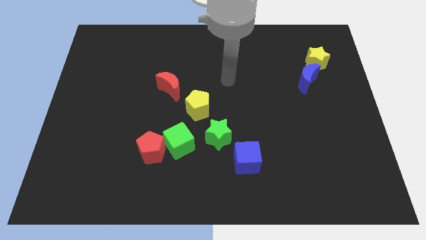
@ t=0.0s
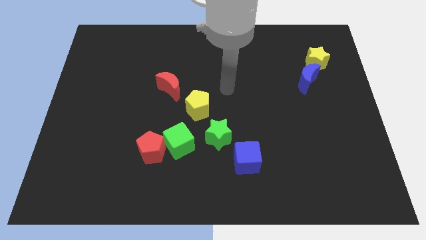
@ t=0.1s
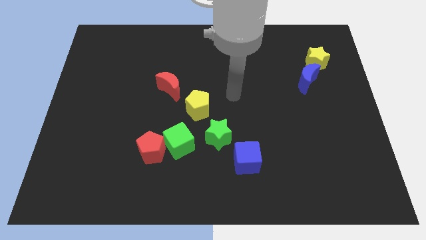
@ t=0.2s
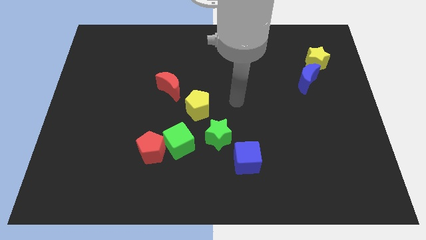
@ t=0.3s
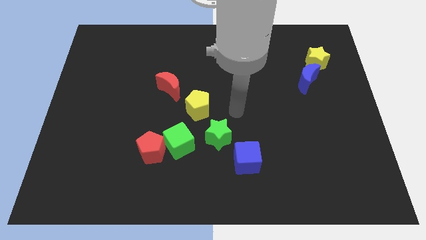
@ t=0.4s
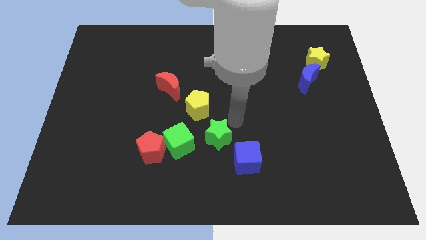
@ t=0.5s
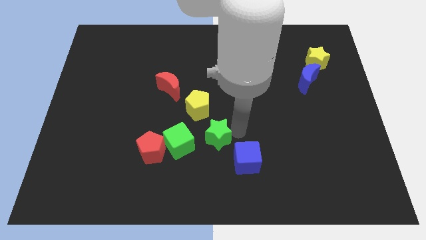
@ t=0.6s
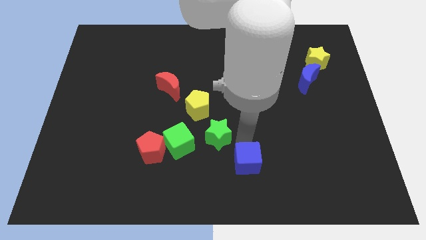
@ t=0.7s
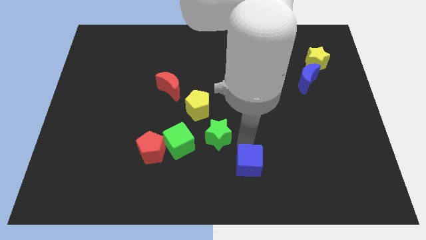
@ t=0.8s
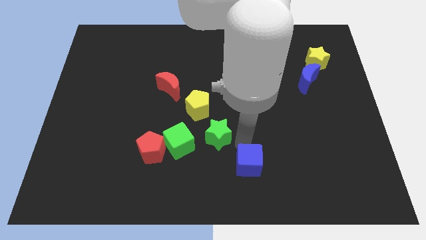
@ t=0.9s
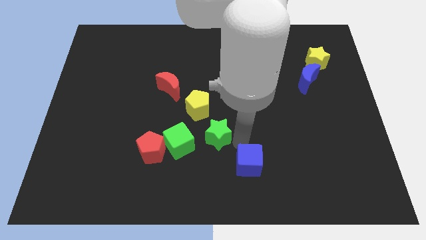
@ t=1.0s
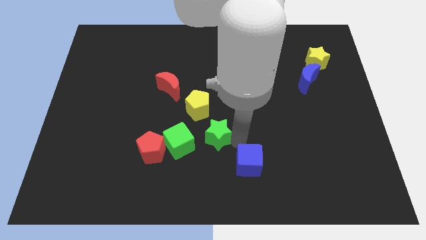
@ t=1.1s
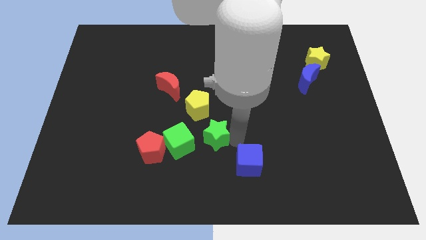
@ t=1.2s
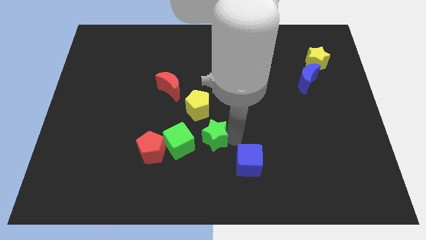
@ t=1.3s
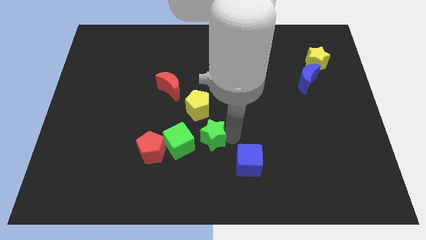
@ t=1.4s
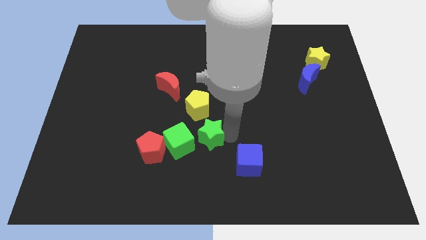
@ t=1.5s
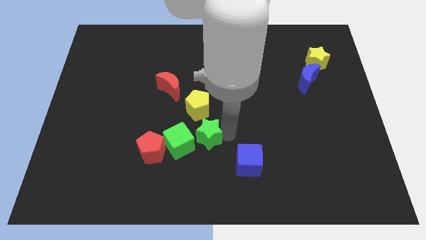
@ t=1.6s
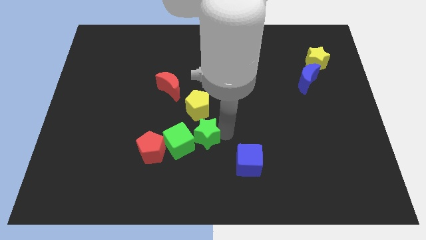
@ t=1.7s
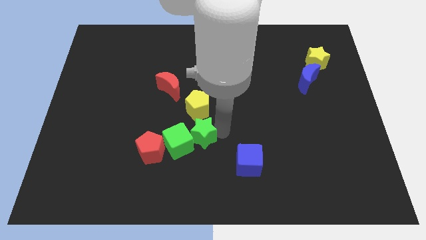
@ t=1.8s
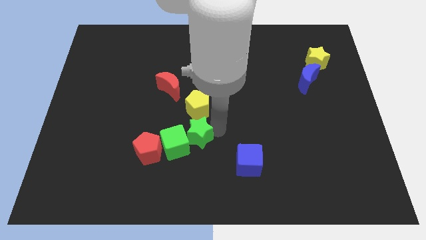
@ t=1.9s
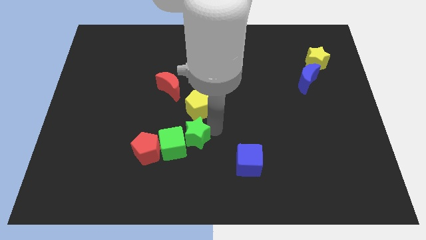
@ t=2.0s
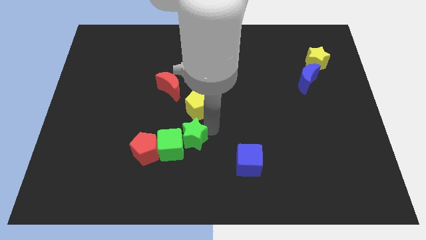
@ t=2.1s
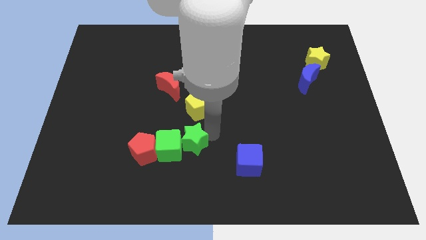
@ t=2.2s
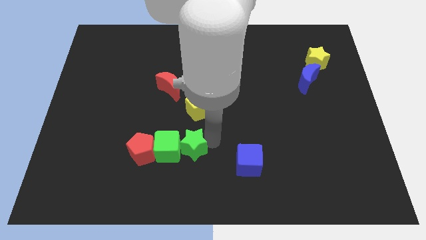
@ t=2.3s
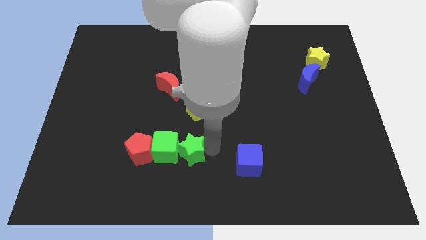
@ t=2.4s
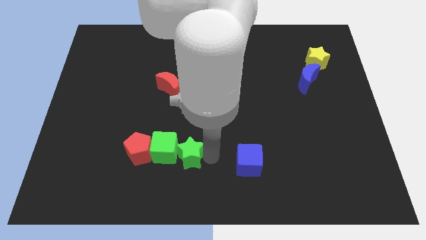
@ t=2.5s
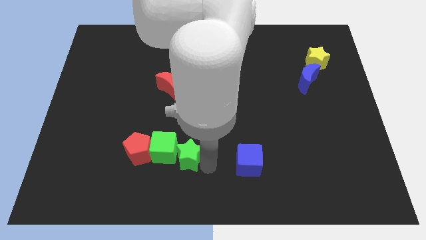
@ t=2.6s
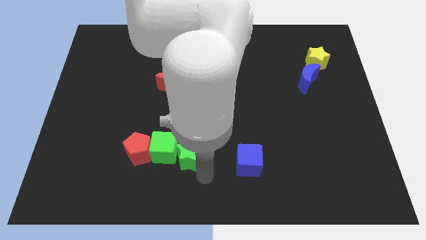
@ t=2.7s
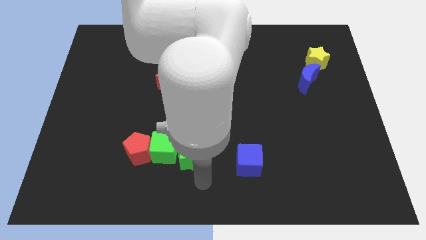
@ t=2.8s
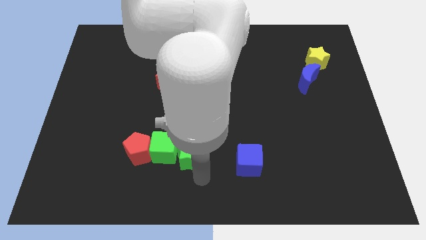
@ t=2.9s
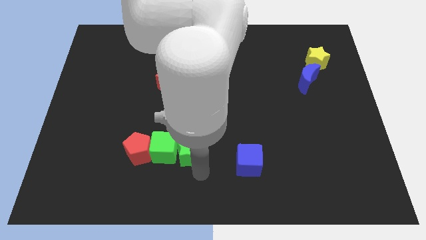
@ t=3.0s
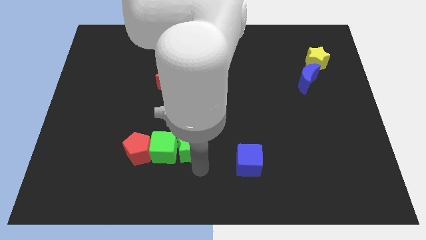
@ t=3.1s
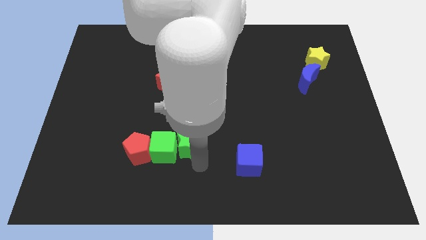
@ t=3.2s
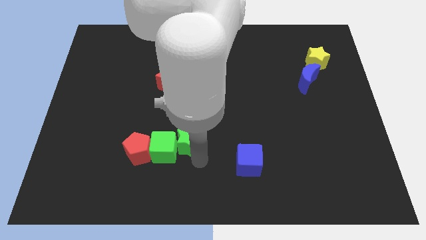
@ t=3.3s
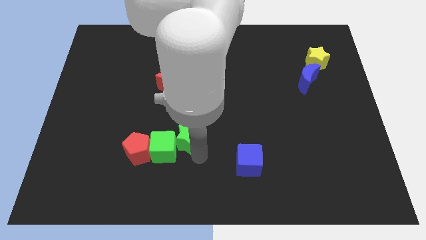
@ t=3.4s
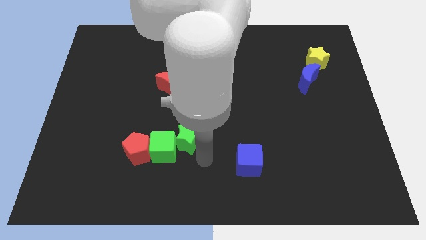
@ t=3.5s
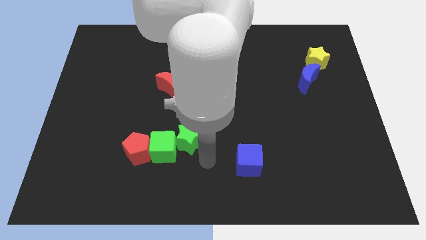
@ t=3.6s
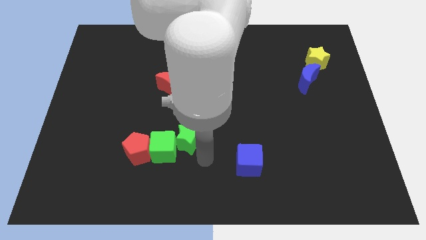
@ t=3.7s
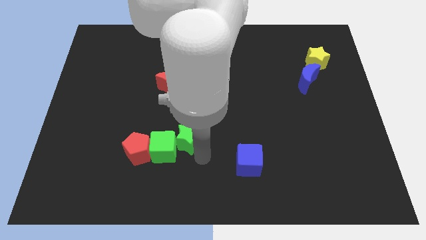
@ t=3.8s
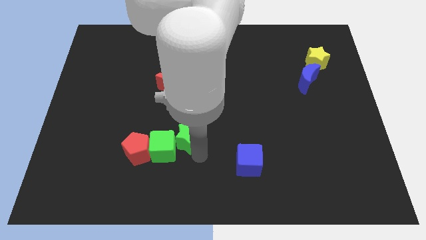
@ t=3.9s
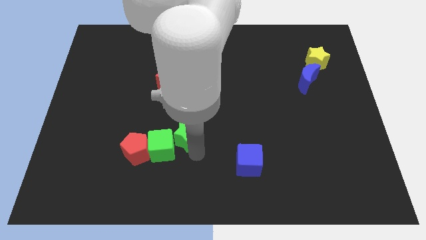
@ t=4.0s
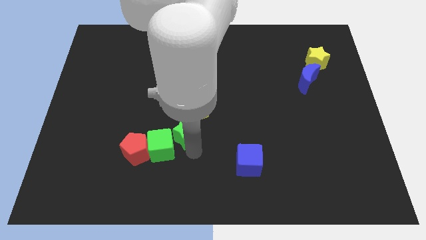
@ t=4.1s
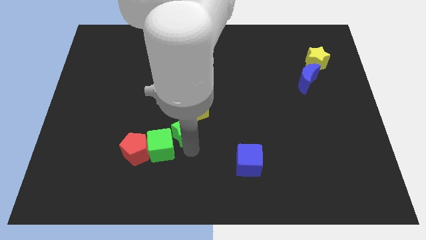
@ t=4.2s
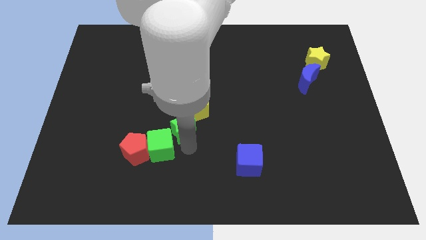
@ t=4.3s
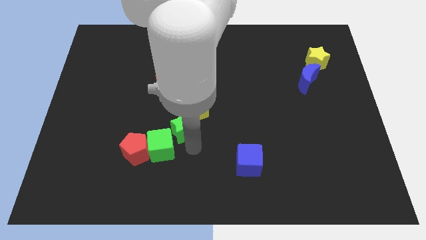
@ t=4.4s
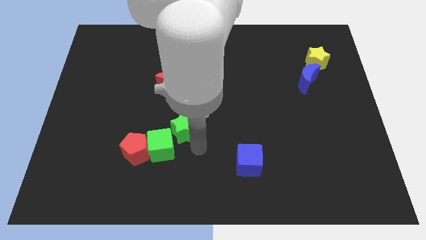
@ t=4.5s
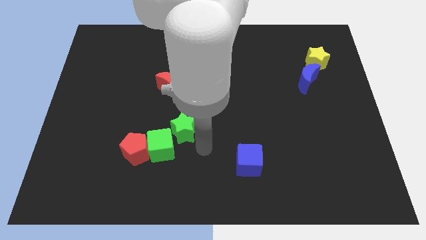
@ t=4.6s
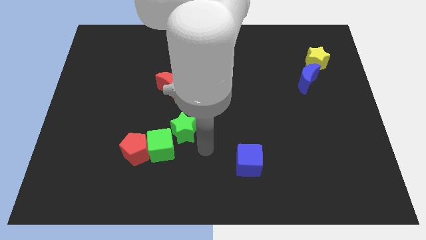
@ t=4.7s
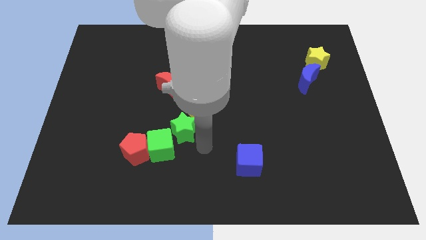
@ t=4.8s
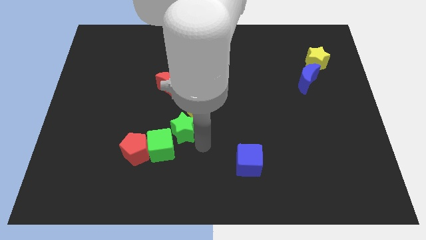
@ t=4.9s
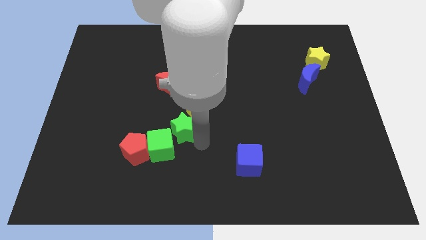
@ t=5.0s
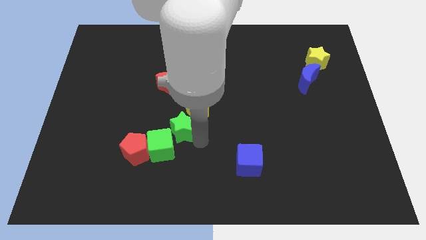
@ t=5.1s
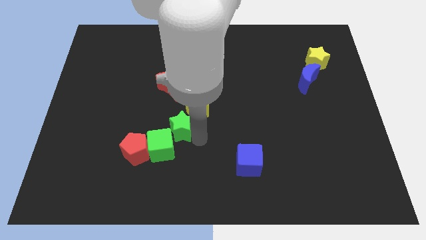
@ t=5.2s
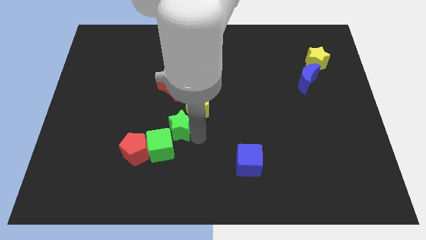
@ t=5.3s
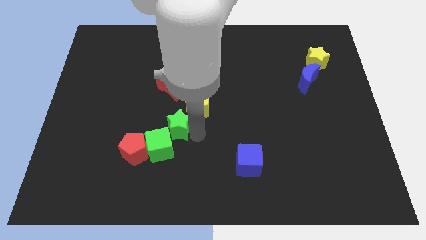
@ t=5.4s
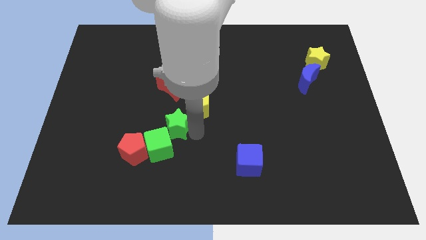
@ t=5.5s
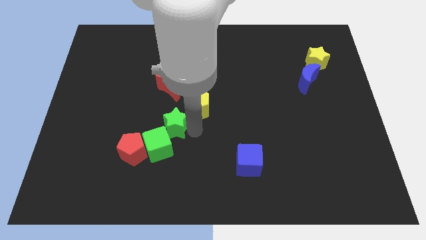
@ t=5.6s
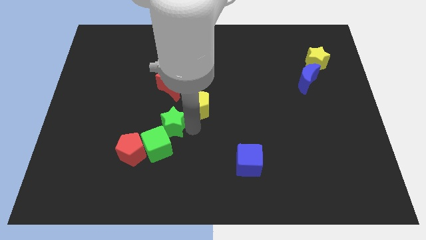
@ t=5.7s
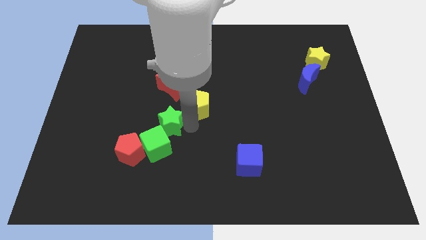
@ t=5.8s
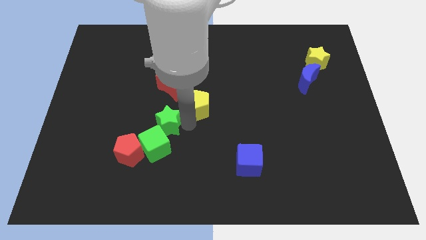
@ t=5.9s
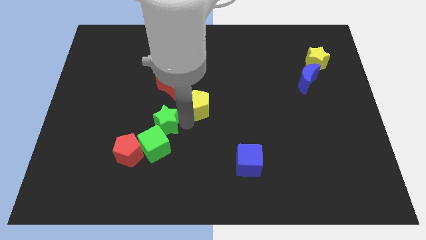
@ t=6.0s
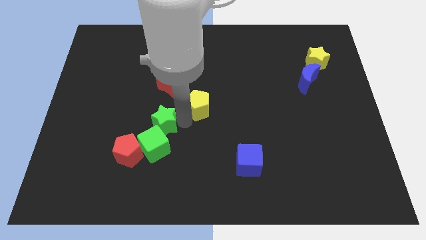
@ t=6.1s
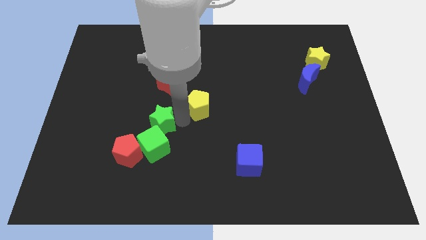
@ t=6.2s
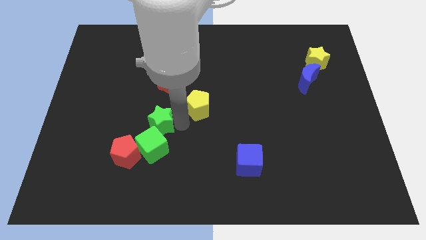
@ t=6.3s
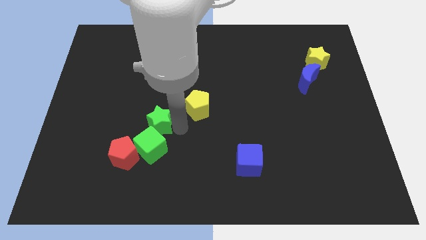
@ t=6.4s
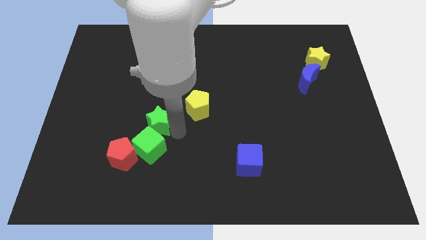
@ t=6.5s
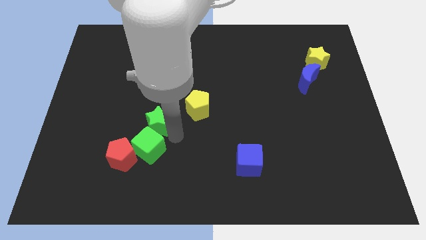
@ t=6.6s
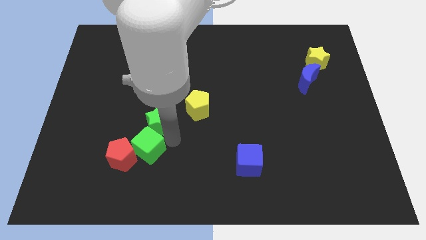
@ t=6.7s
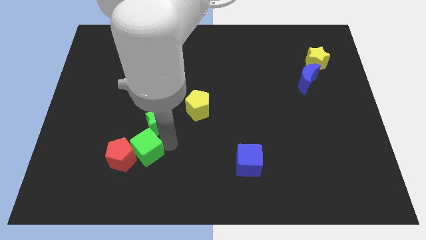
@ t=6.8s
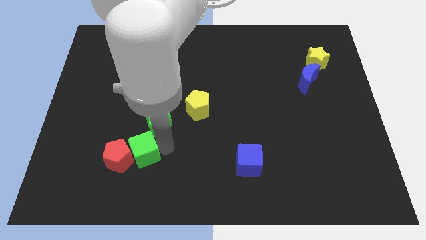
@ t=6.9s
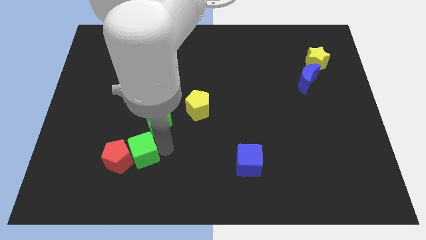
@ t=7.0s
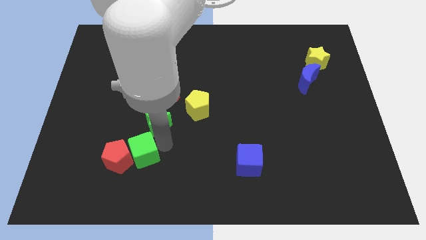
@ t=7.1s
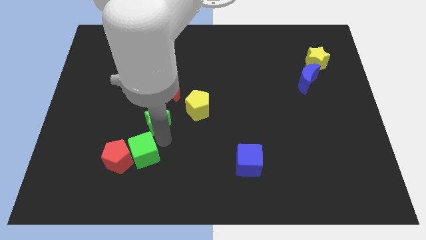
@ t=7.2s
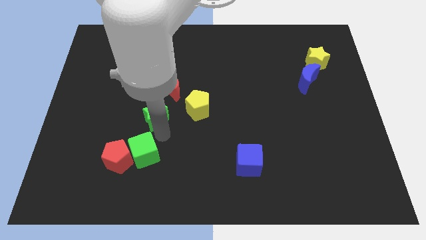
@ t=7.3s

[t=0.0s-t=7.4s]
move the green star to the bottom left of the red moon
